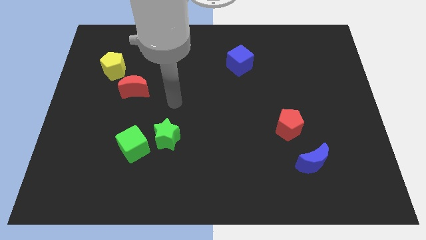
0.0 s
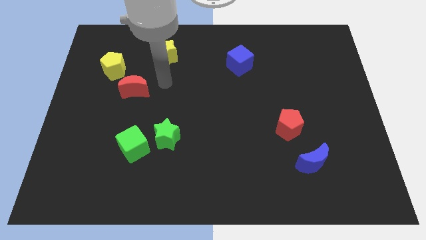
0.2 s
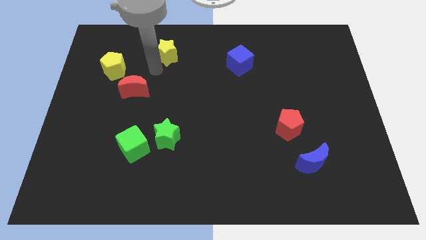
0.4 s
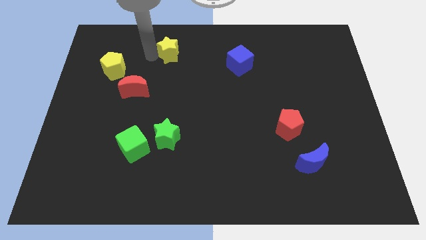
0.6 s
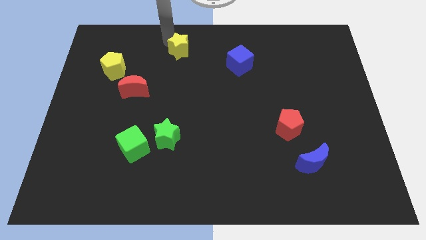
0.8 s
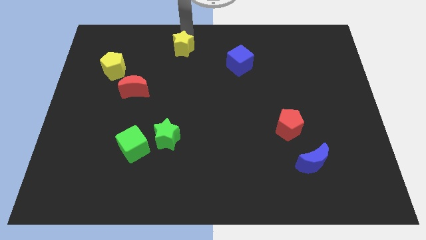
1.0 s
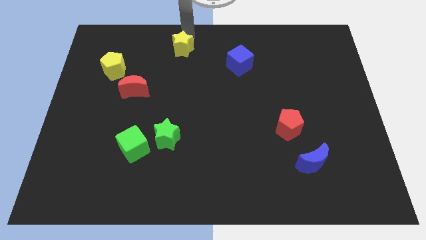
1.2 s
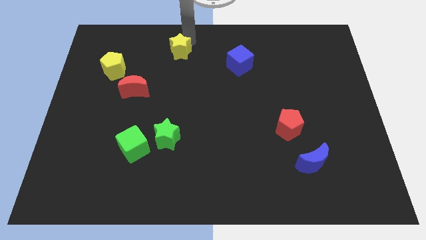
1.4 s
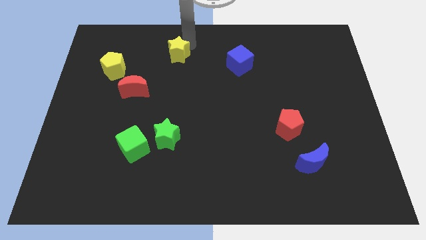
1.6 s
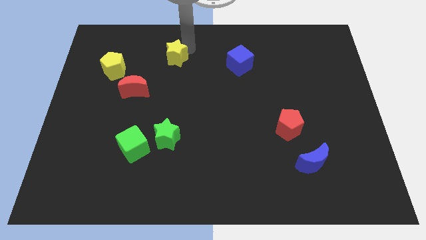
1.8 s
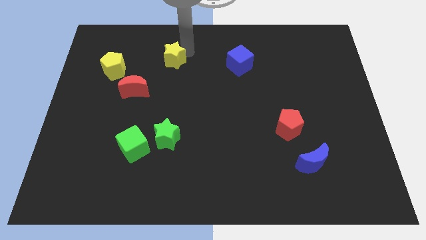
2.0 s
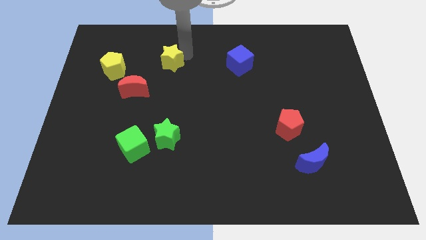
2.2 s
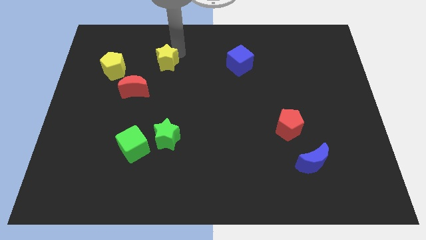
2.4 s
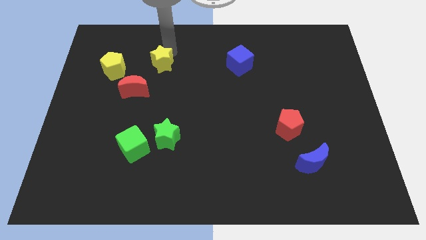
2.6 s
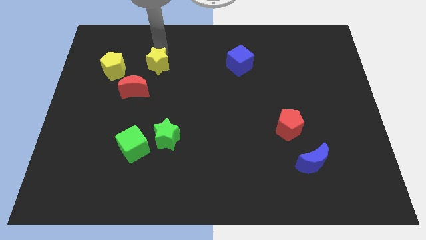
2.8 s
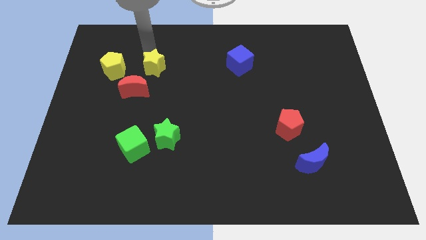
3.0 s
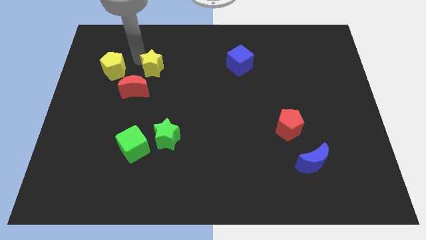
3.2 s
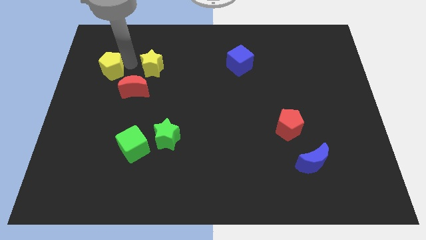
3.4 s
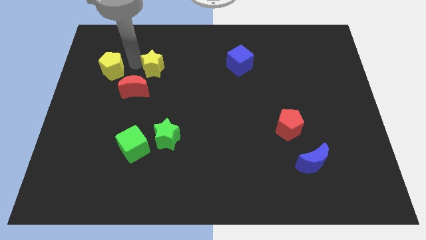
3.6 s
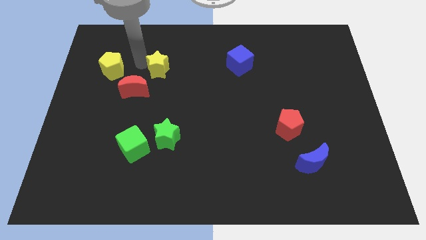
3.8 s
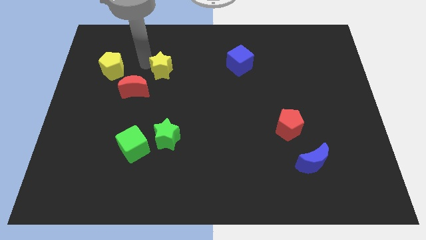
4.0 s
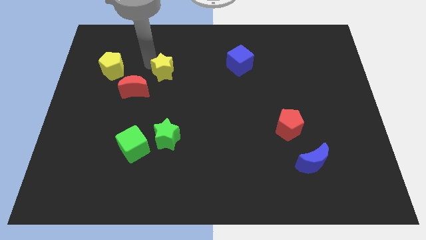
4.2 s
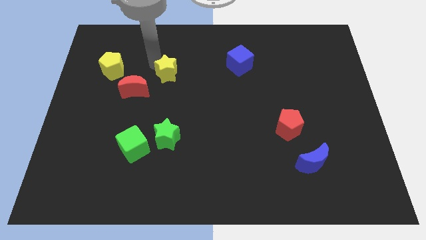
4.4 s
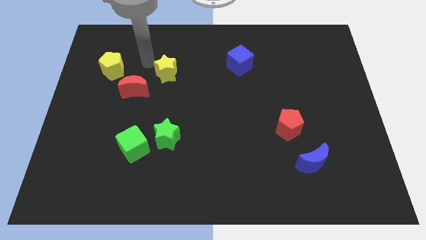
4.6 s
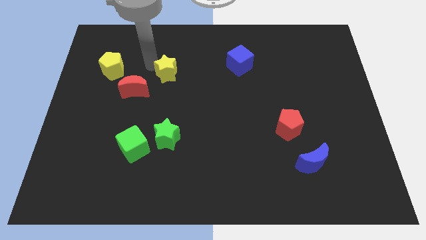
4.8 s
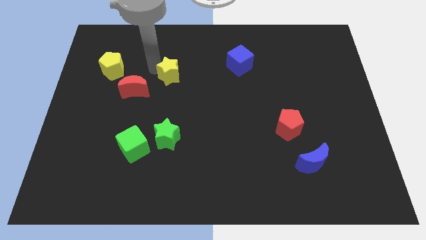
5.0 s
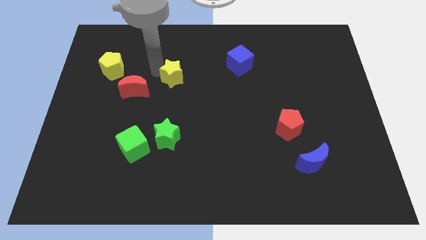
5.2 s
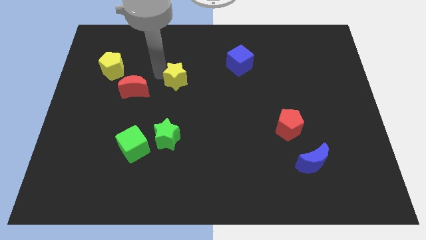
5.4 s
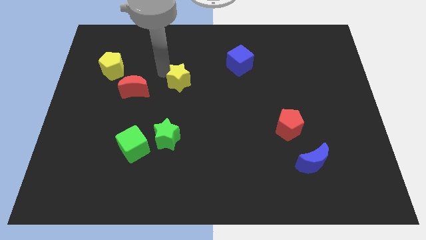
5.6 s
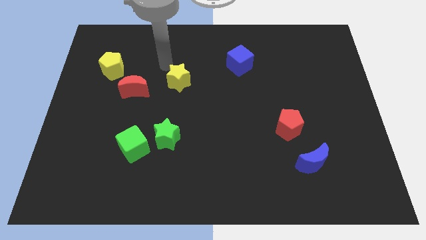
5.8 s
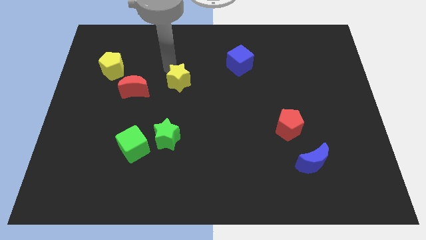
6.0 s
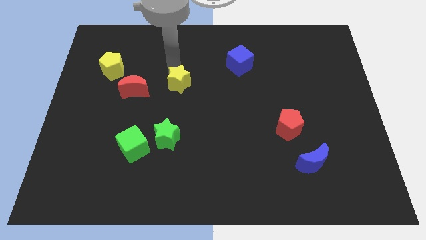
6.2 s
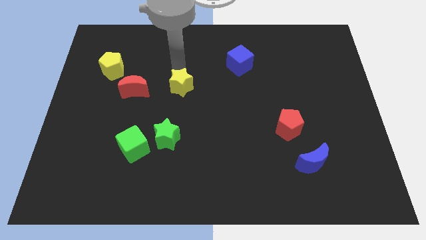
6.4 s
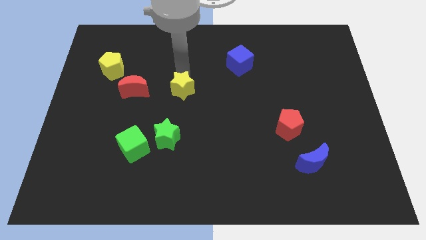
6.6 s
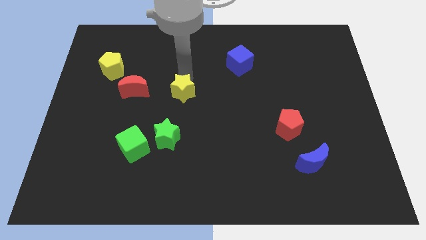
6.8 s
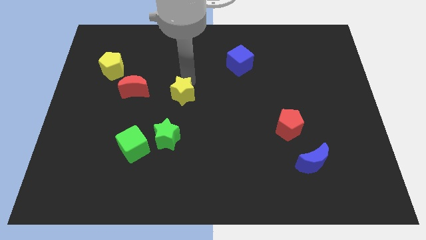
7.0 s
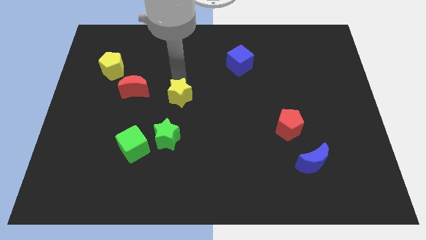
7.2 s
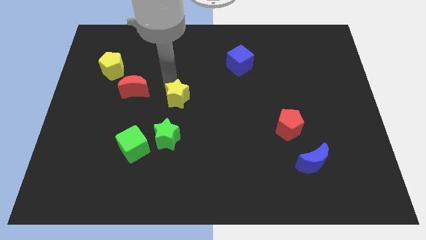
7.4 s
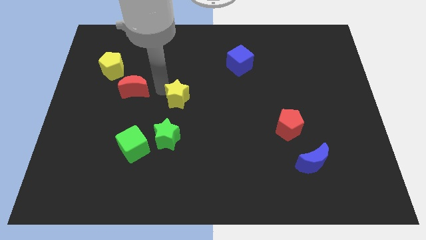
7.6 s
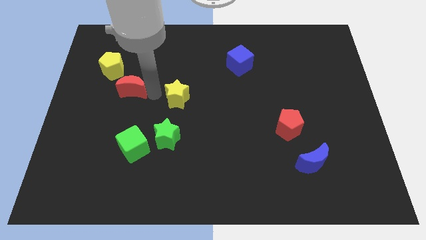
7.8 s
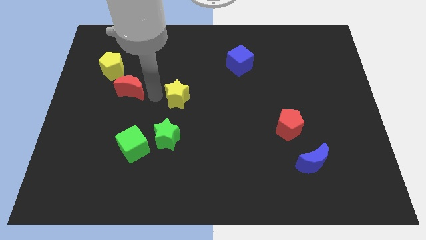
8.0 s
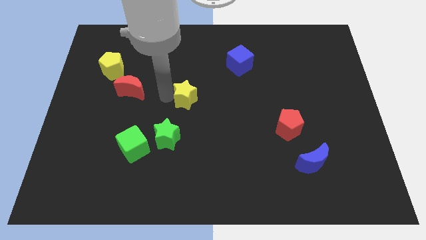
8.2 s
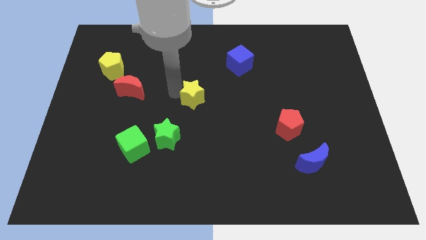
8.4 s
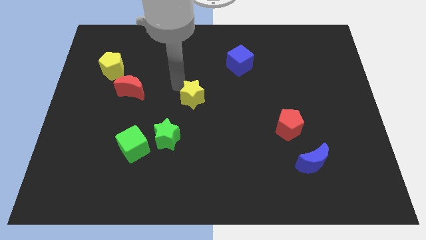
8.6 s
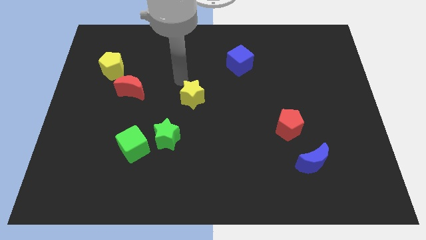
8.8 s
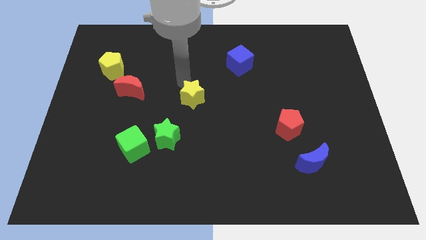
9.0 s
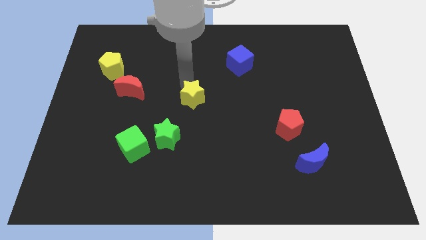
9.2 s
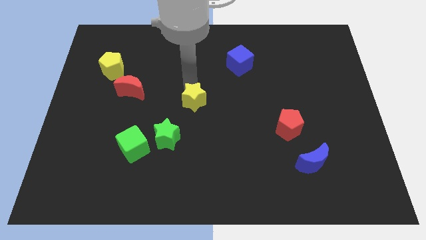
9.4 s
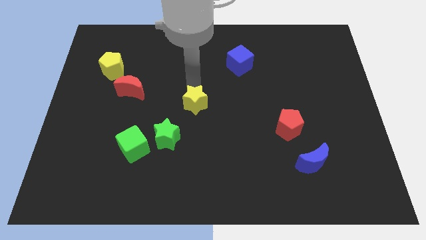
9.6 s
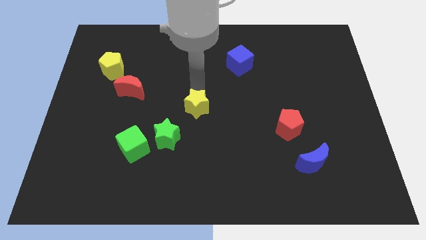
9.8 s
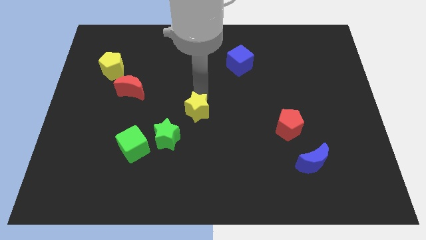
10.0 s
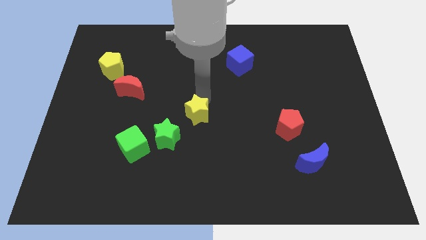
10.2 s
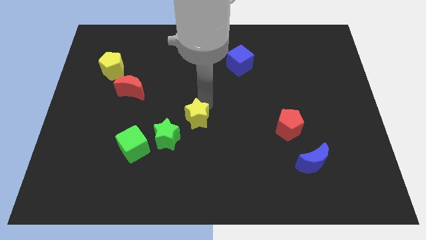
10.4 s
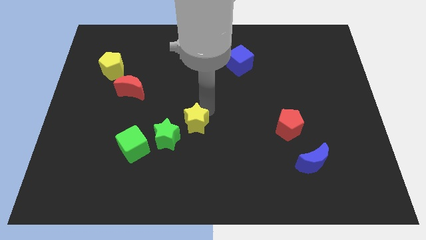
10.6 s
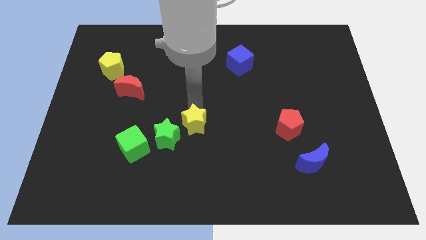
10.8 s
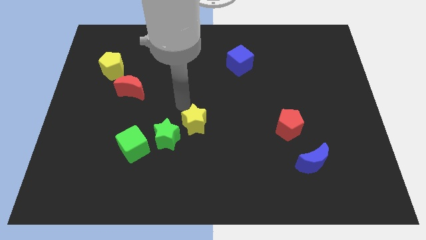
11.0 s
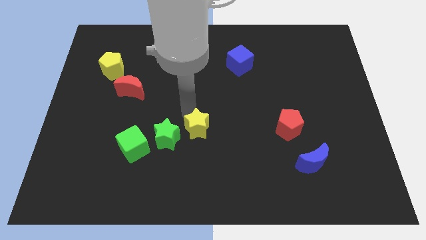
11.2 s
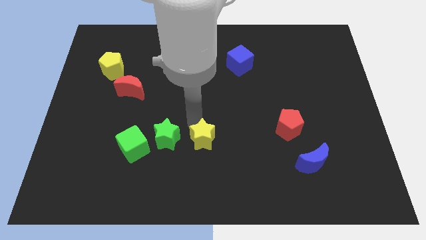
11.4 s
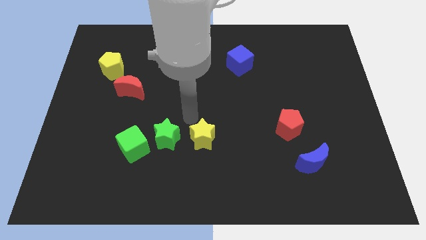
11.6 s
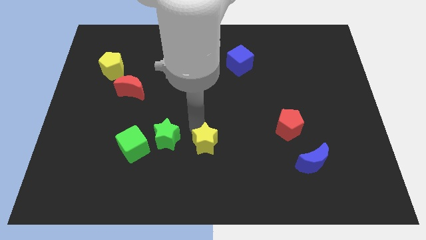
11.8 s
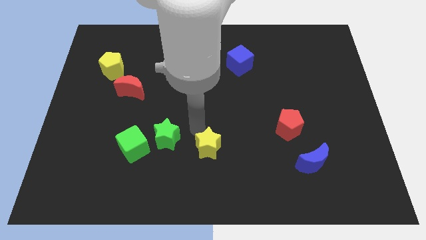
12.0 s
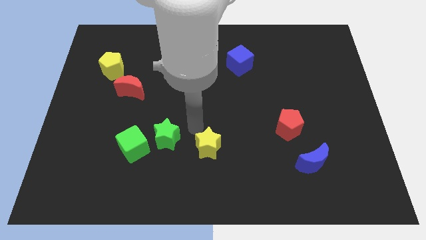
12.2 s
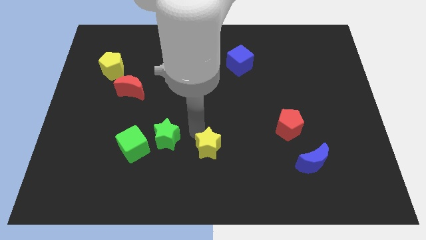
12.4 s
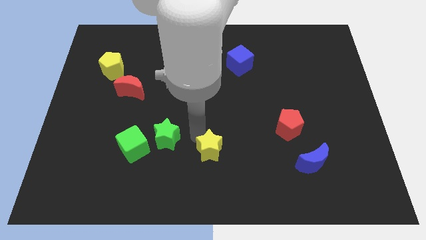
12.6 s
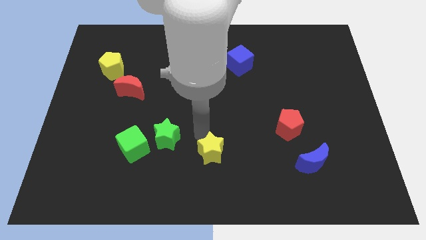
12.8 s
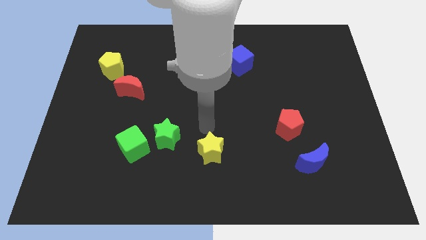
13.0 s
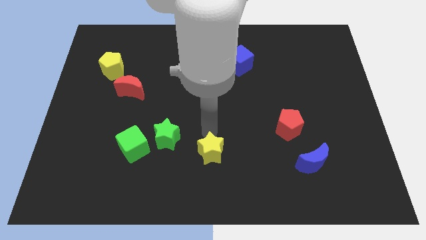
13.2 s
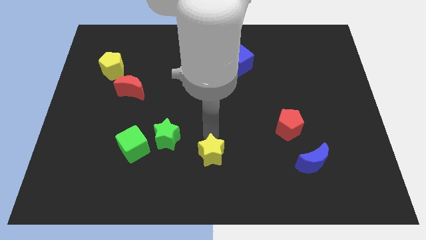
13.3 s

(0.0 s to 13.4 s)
put the yellow star to the bottom
